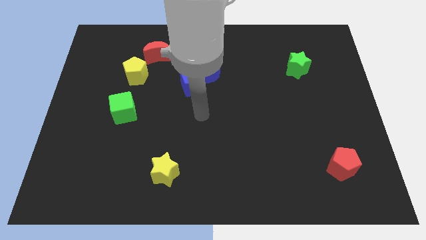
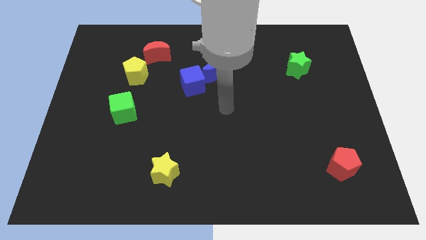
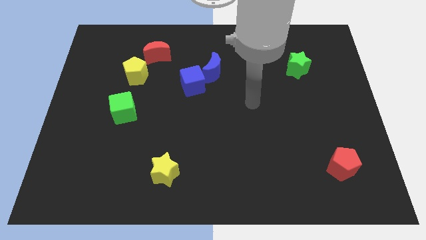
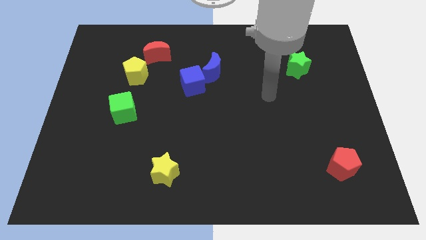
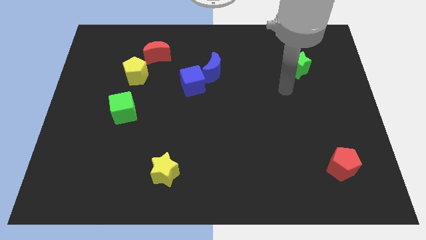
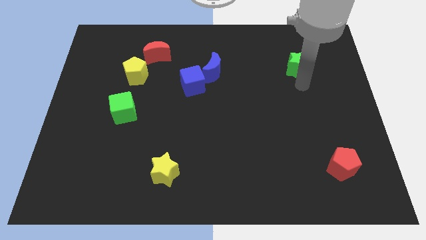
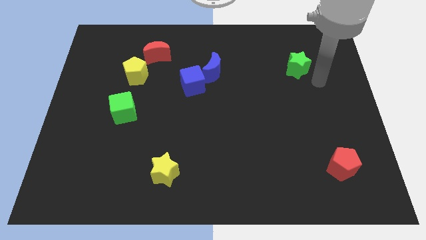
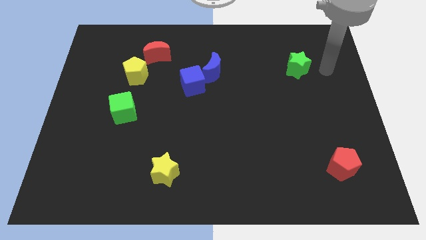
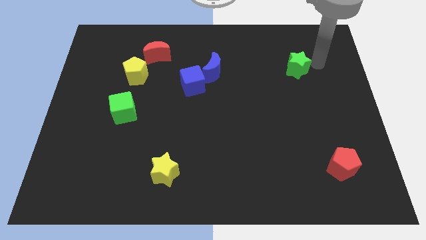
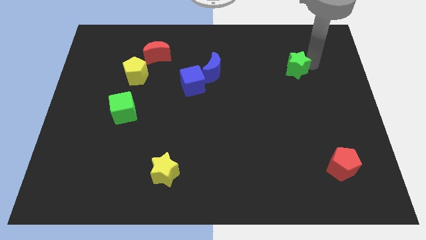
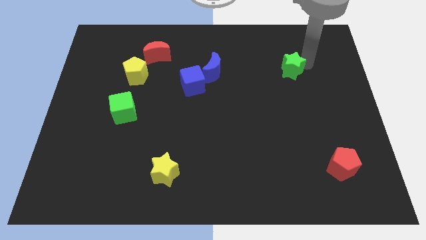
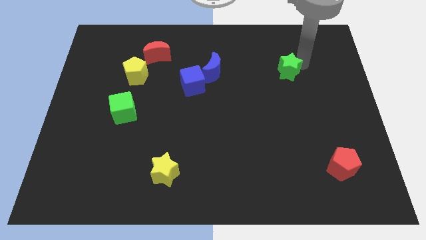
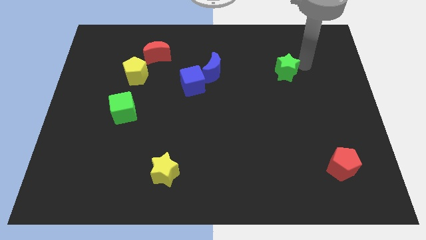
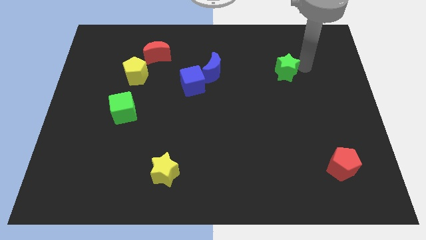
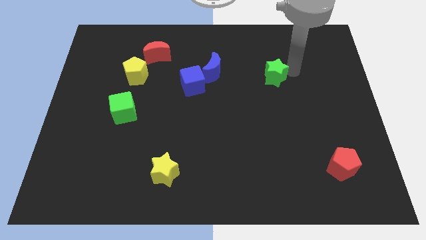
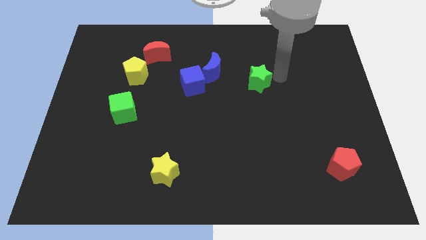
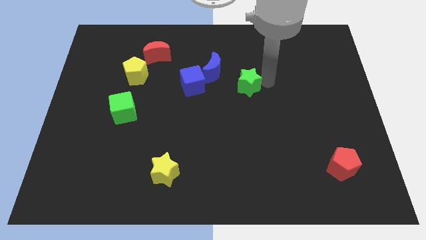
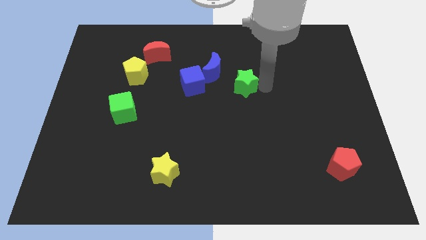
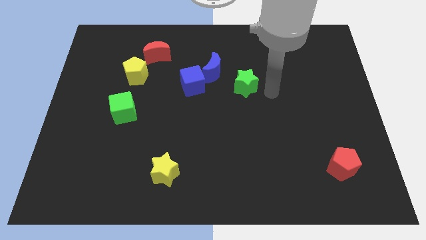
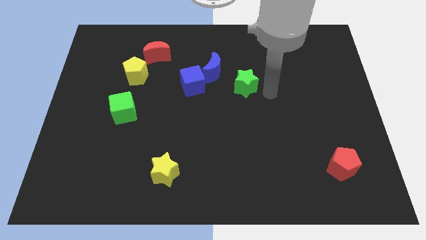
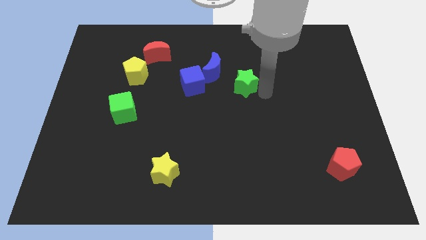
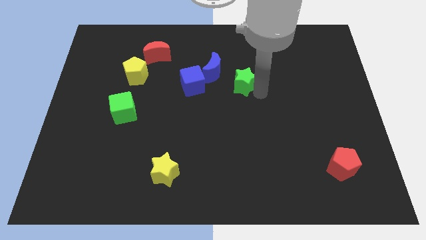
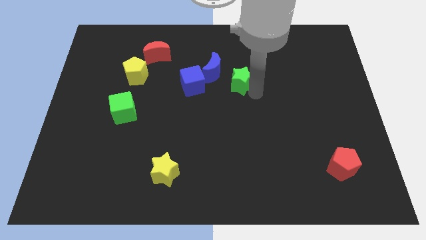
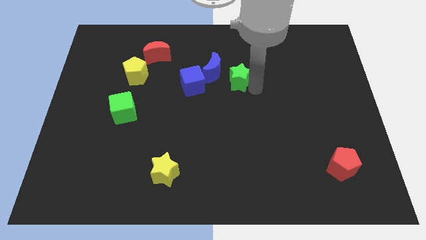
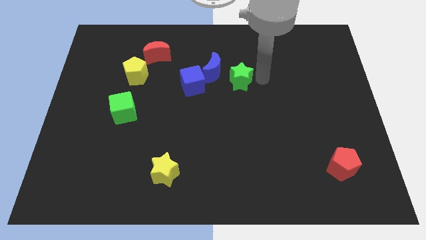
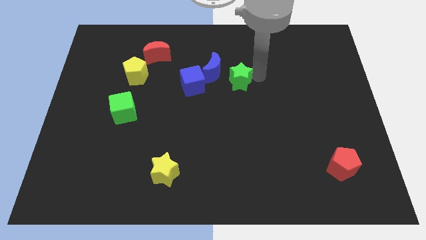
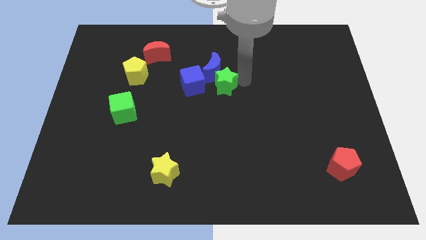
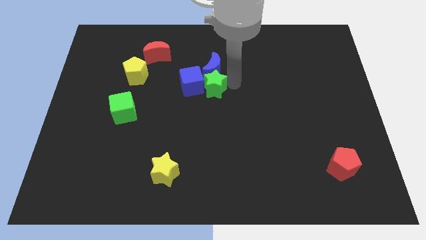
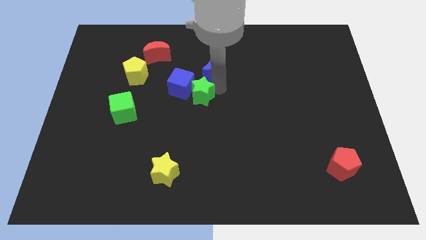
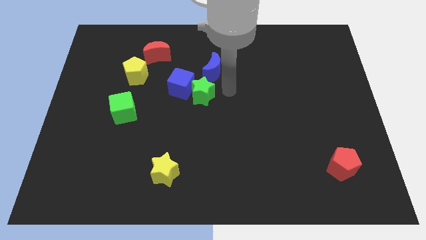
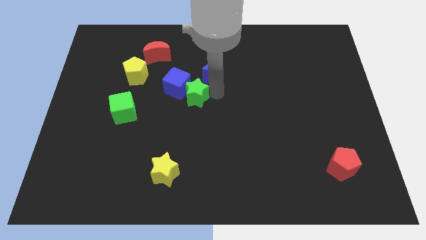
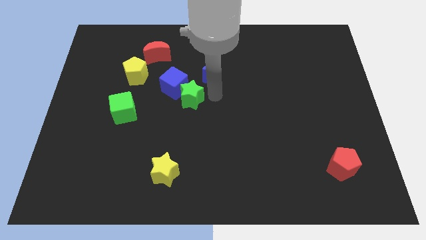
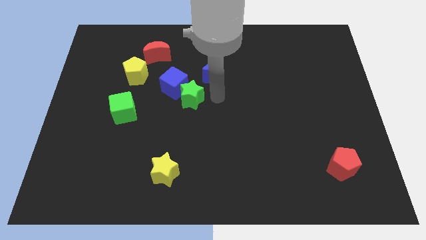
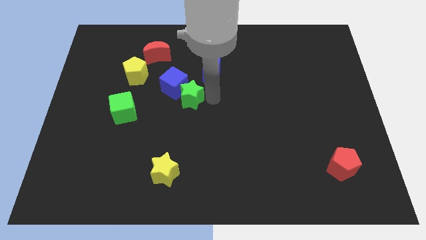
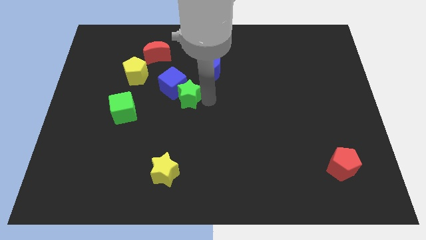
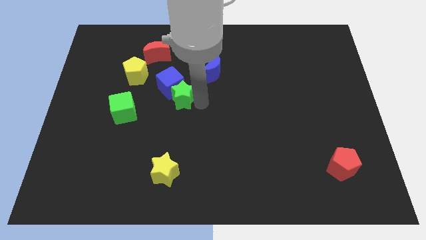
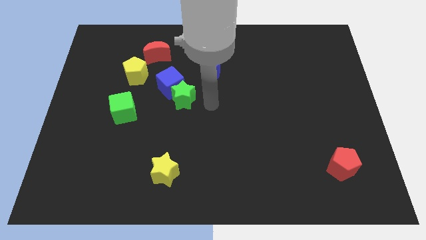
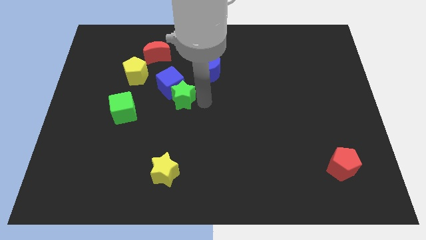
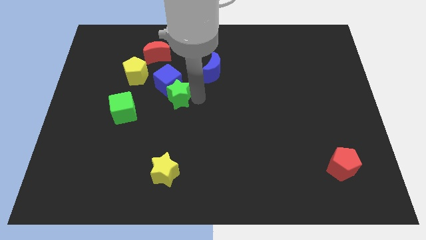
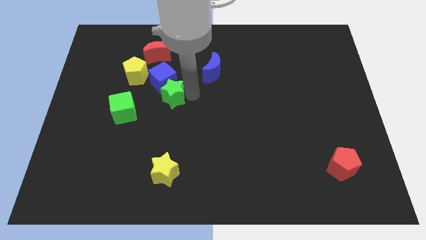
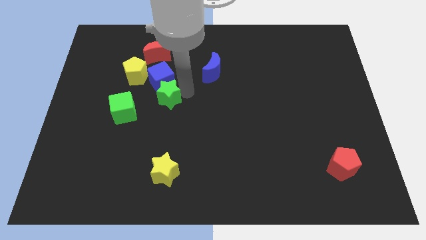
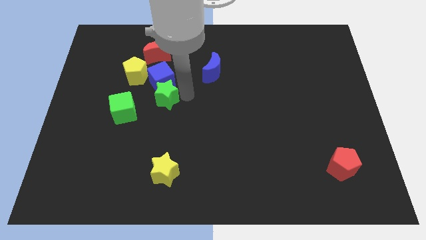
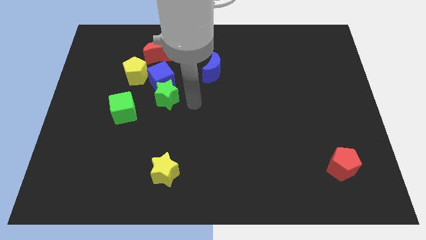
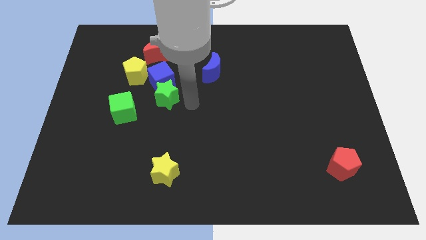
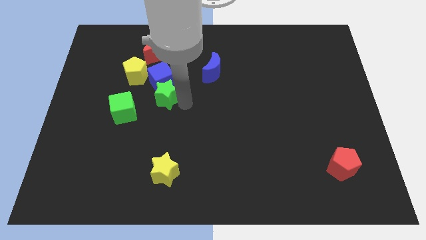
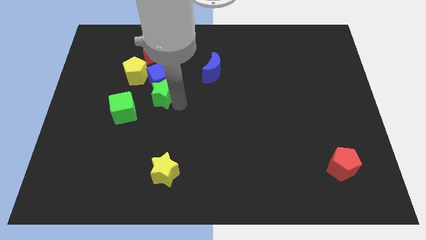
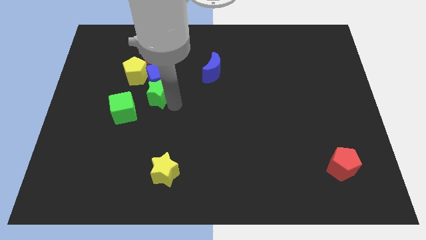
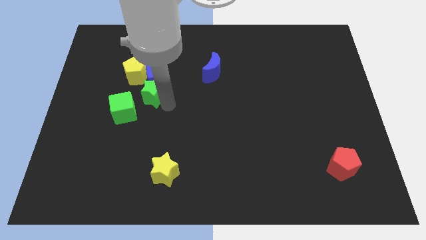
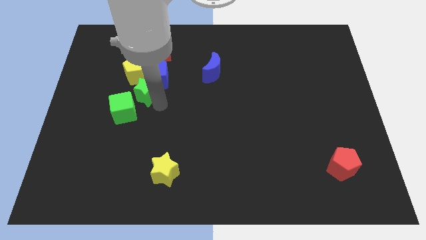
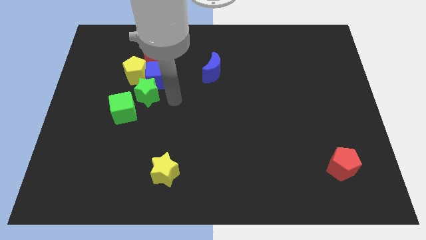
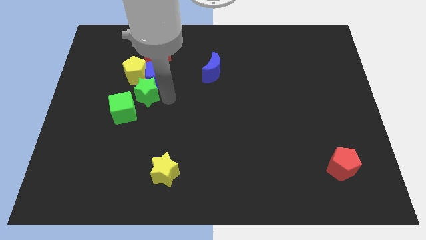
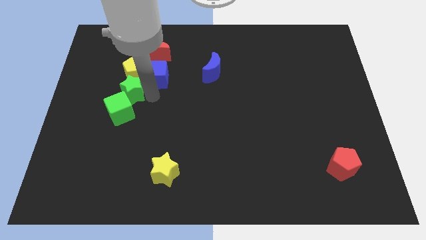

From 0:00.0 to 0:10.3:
put the green star to the bottom left side of the yellow pentagon

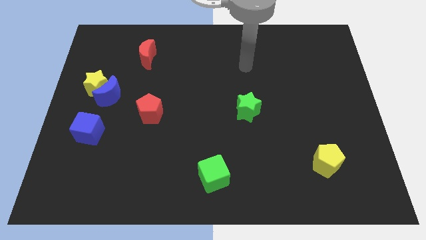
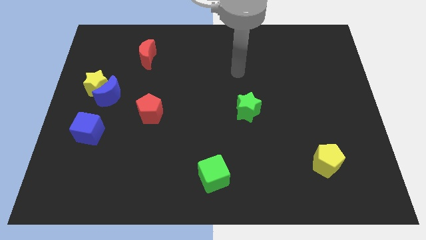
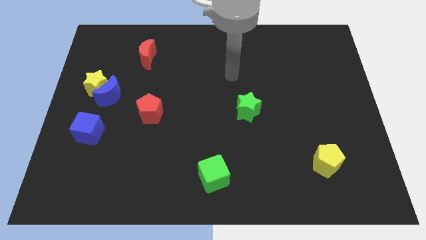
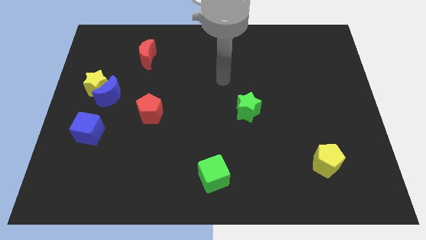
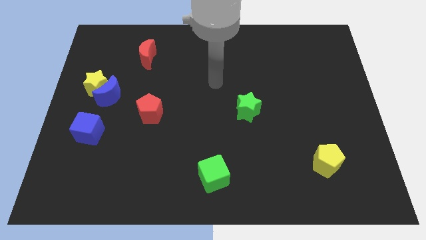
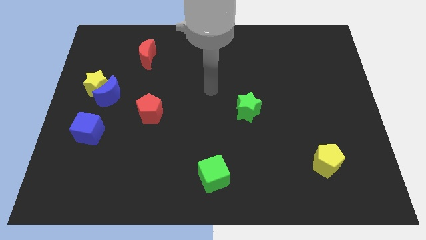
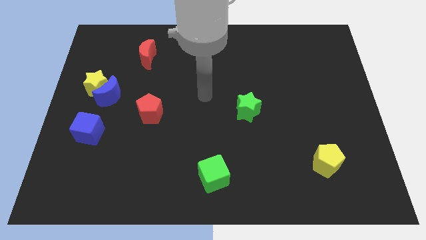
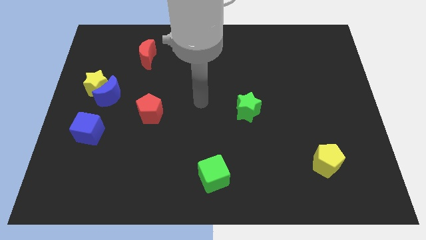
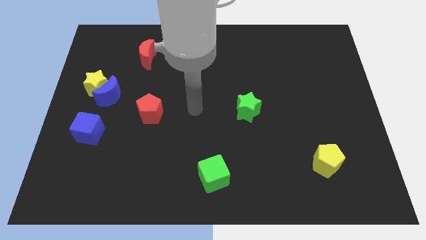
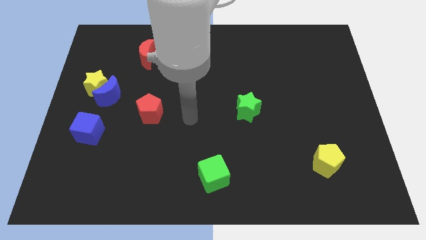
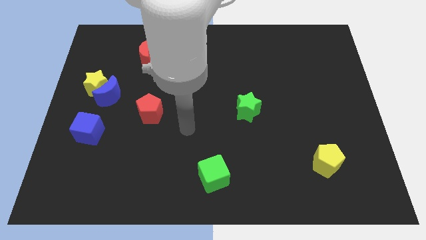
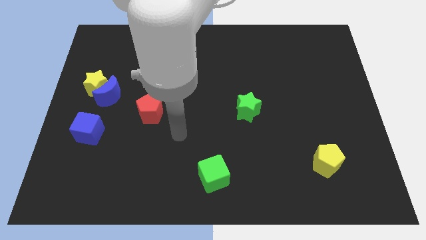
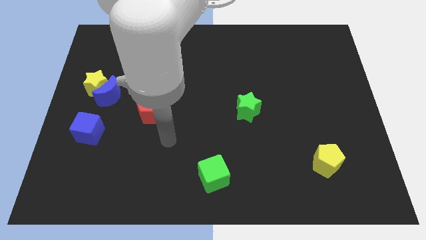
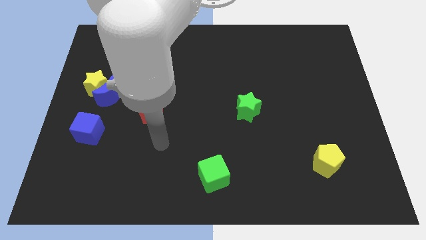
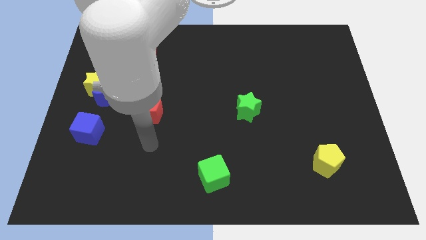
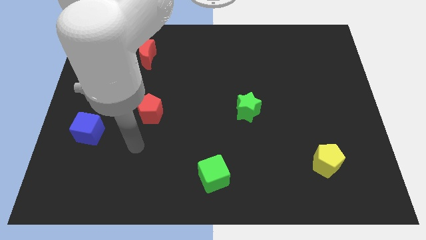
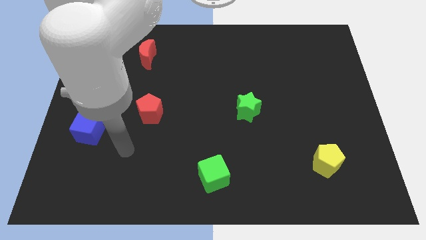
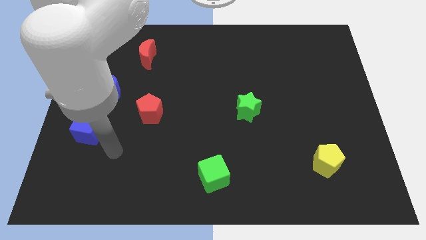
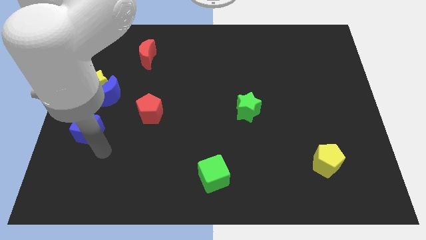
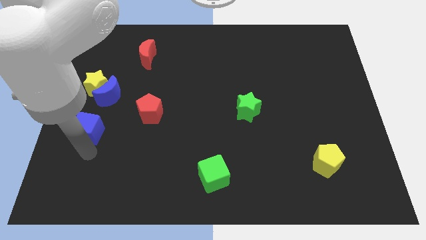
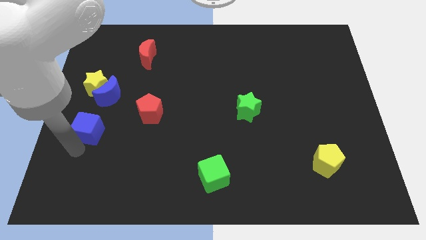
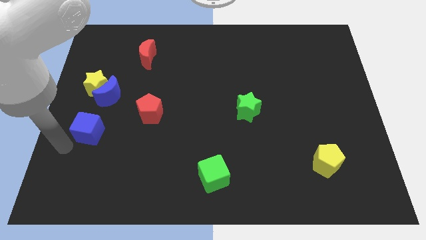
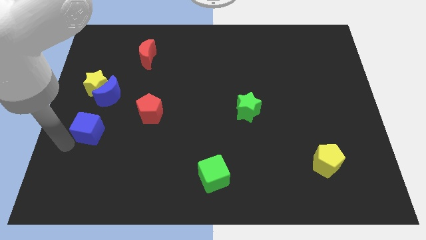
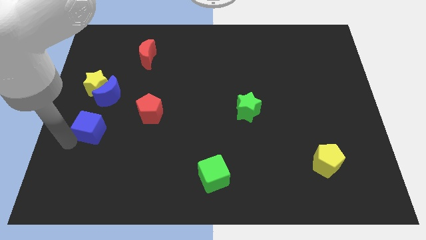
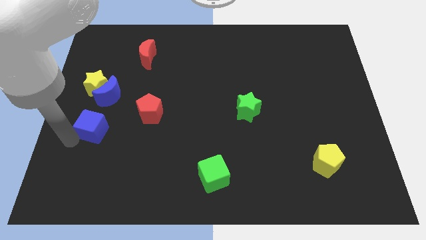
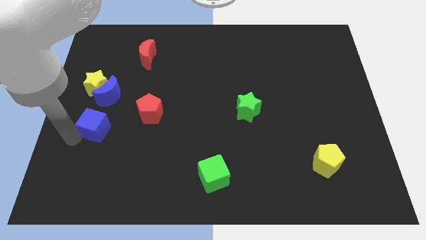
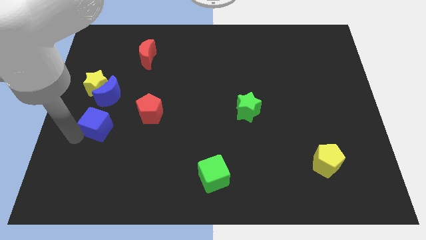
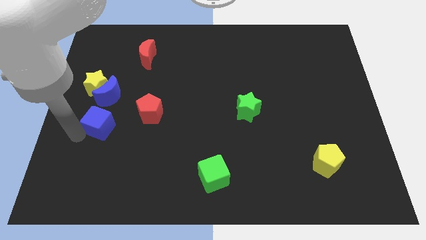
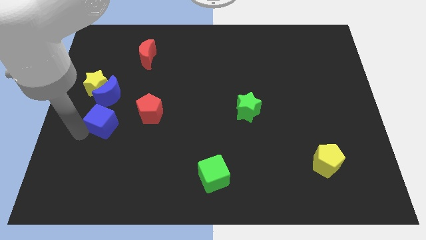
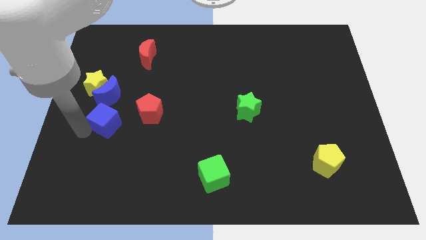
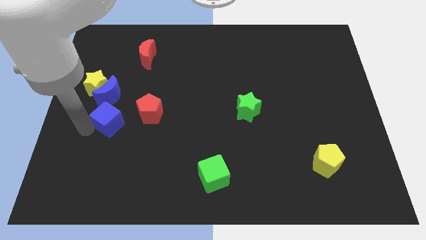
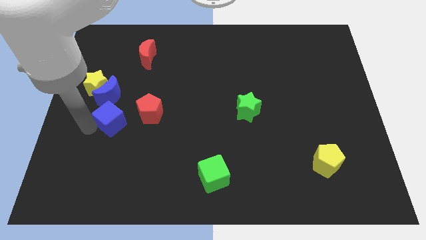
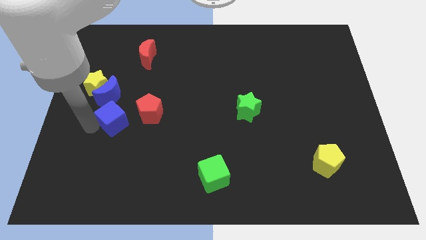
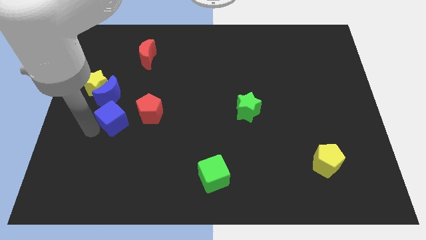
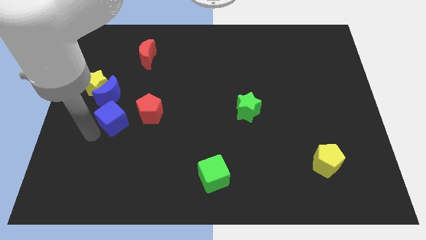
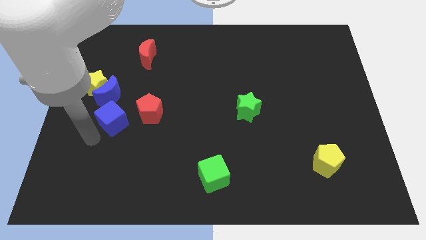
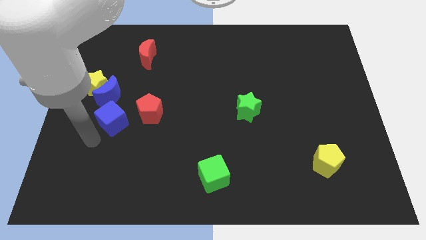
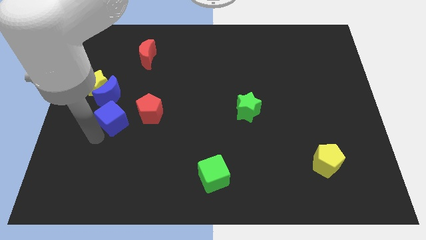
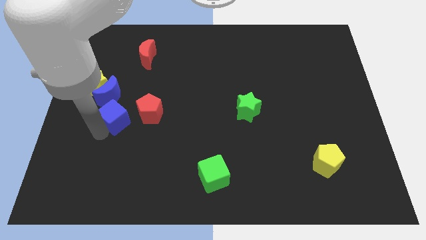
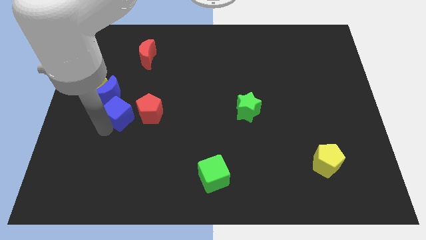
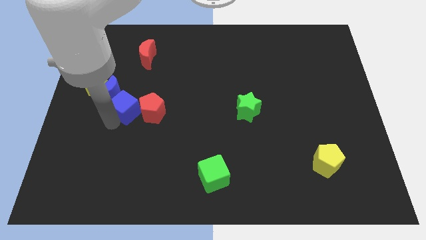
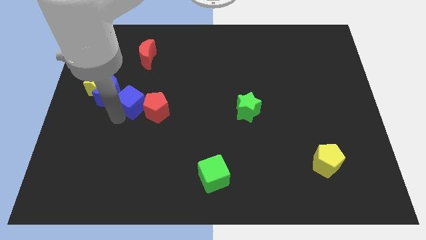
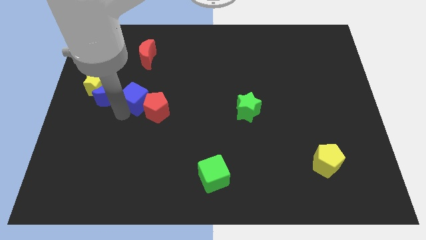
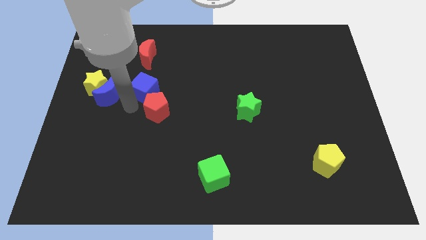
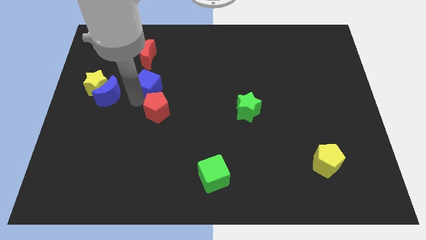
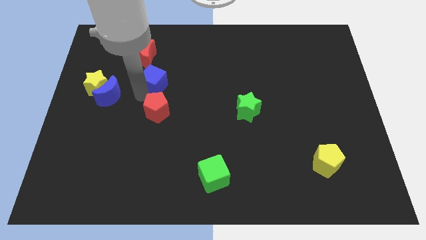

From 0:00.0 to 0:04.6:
slide the blue cube to the bottom right side of the red moon
